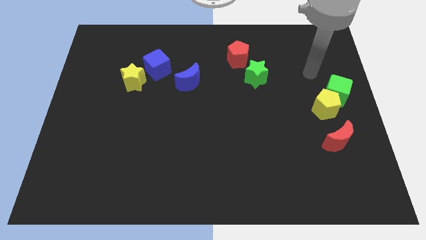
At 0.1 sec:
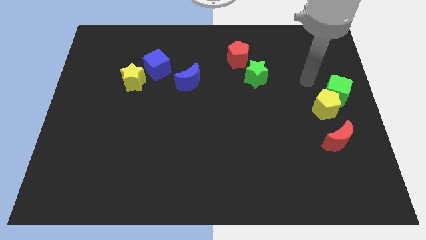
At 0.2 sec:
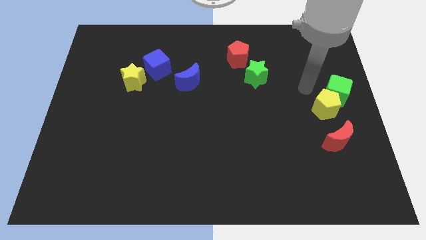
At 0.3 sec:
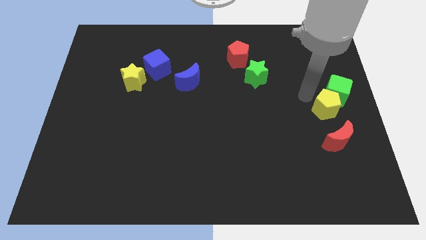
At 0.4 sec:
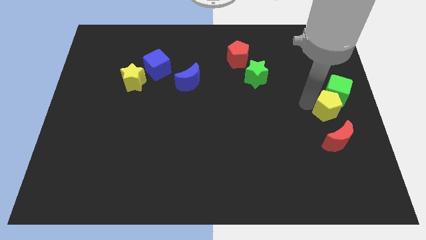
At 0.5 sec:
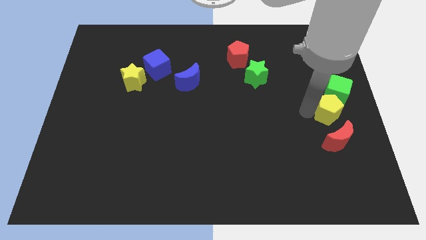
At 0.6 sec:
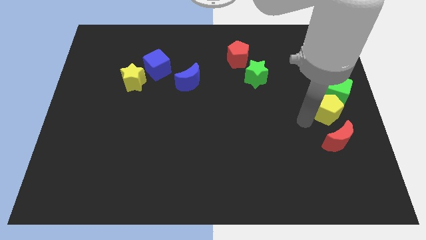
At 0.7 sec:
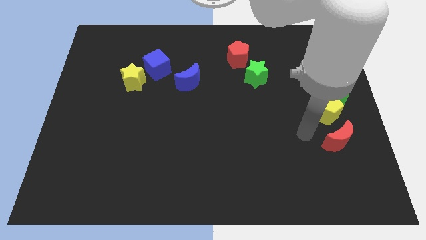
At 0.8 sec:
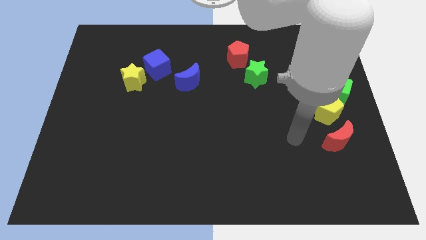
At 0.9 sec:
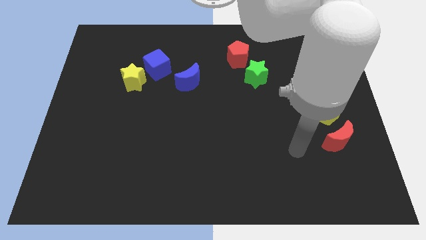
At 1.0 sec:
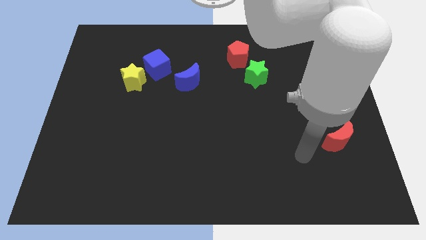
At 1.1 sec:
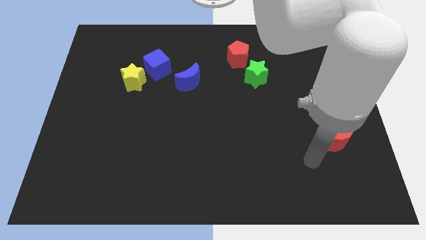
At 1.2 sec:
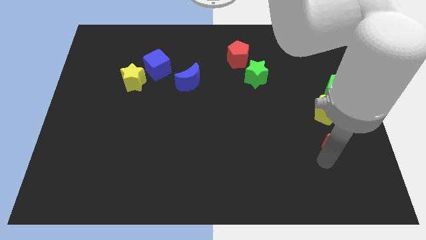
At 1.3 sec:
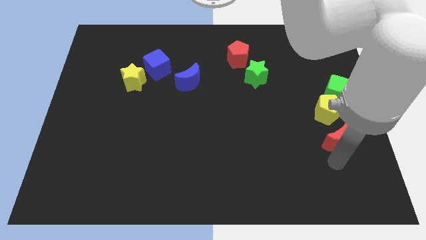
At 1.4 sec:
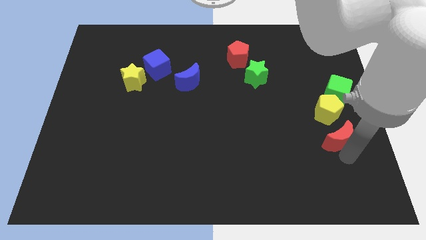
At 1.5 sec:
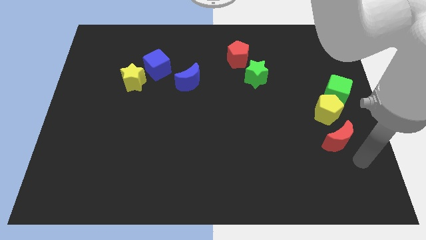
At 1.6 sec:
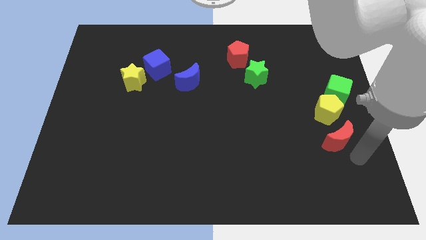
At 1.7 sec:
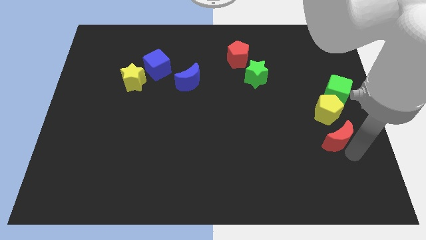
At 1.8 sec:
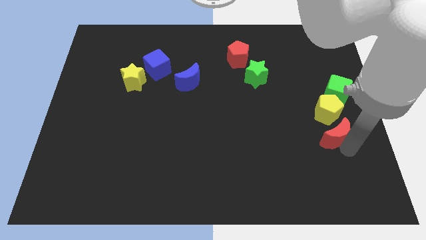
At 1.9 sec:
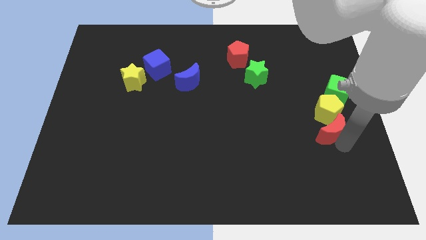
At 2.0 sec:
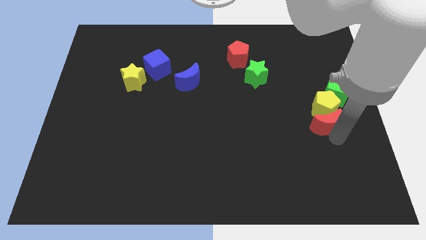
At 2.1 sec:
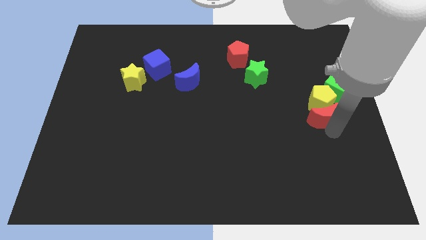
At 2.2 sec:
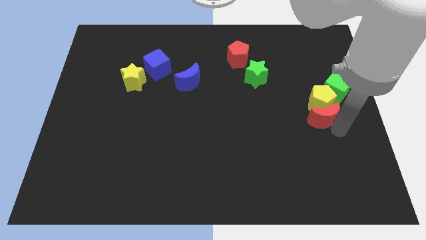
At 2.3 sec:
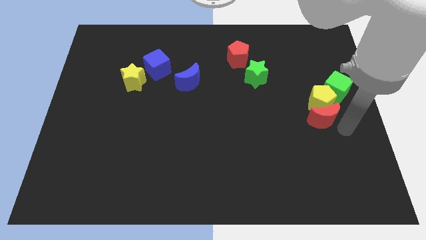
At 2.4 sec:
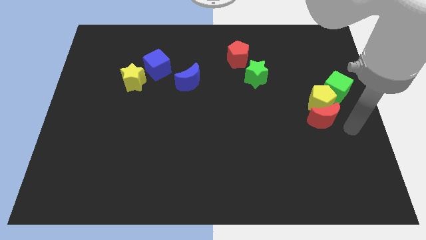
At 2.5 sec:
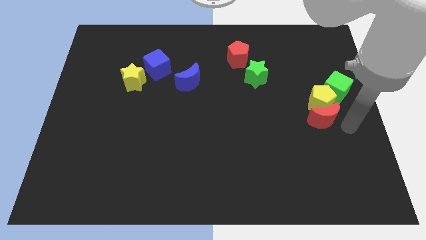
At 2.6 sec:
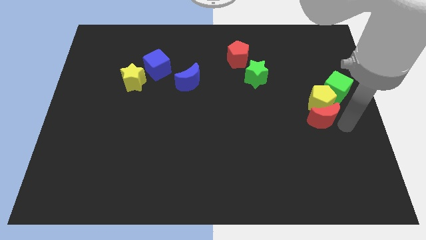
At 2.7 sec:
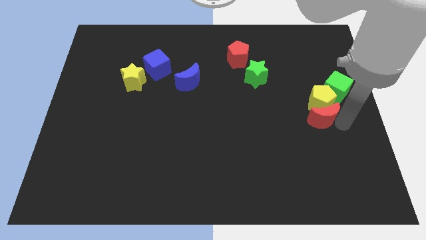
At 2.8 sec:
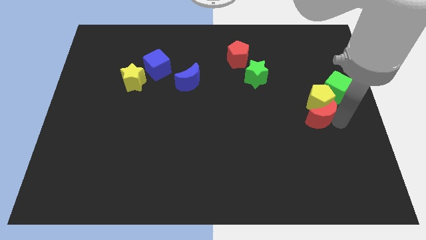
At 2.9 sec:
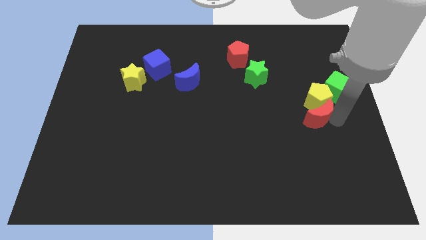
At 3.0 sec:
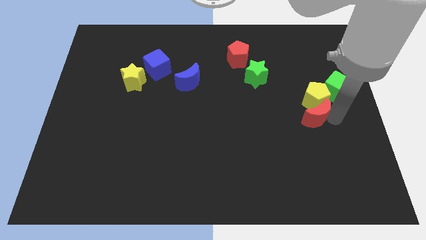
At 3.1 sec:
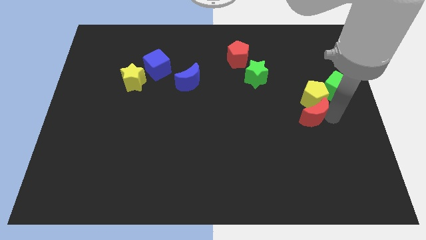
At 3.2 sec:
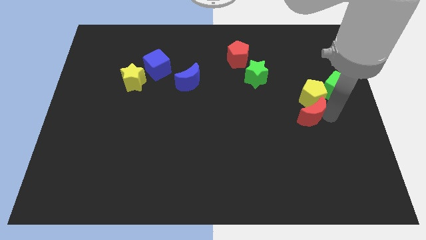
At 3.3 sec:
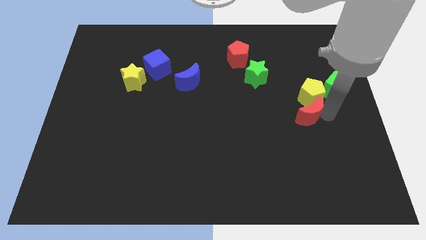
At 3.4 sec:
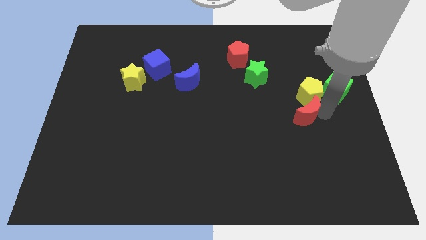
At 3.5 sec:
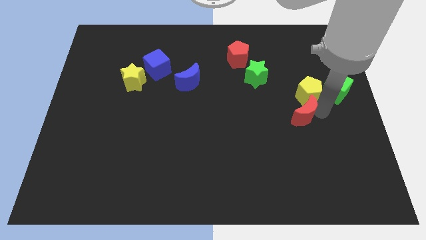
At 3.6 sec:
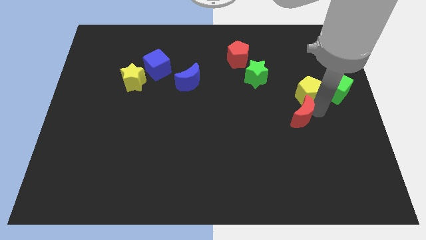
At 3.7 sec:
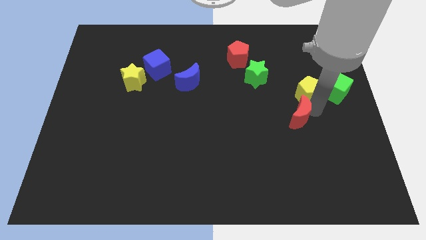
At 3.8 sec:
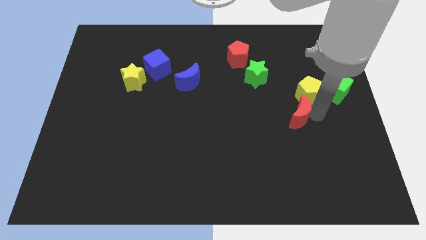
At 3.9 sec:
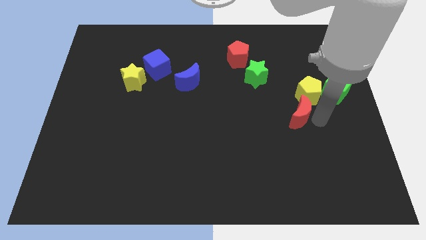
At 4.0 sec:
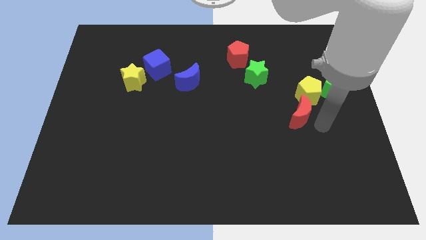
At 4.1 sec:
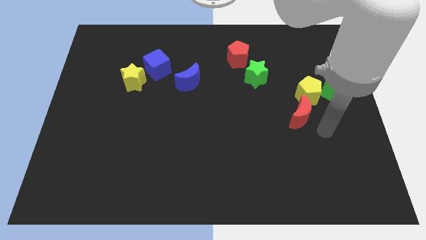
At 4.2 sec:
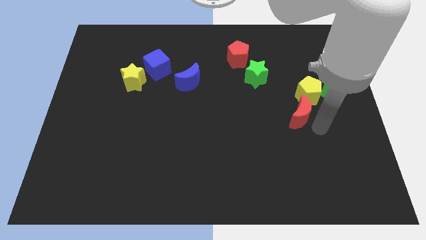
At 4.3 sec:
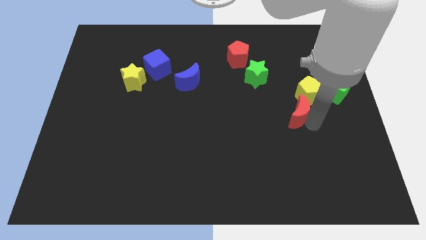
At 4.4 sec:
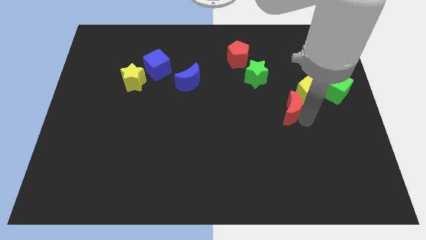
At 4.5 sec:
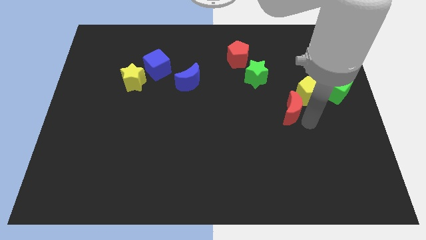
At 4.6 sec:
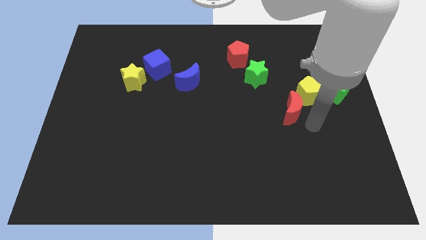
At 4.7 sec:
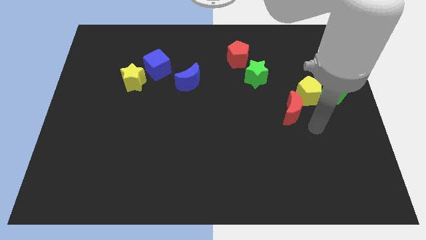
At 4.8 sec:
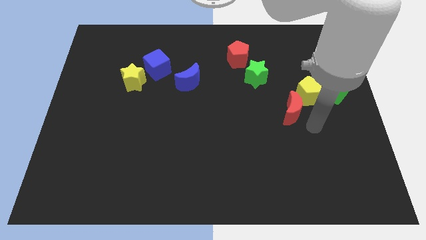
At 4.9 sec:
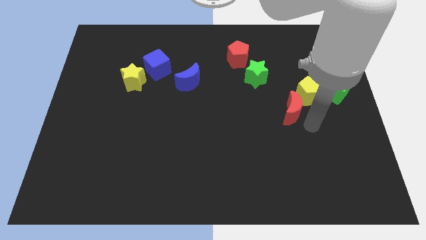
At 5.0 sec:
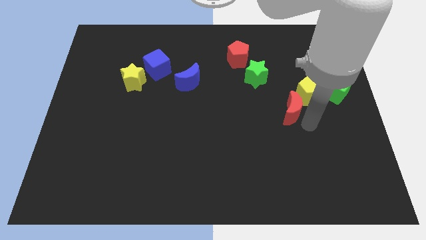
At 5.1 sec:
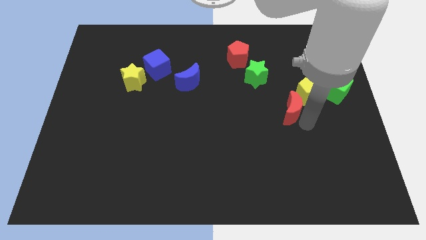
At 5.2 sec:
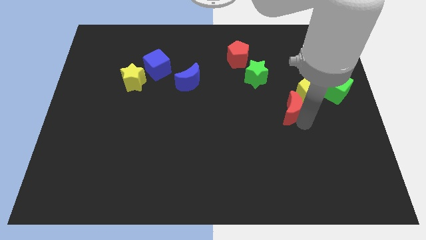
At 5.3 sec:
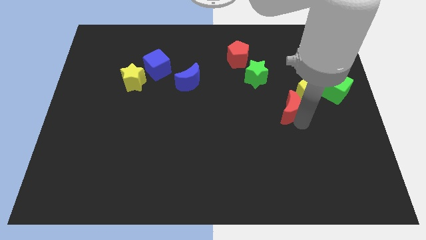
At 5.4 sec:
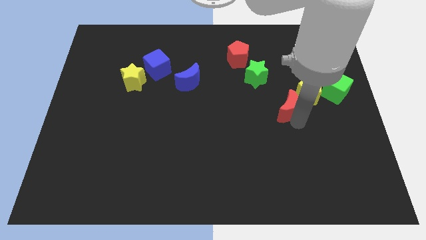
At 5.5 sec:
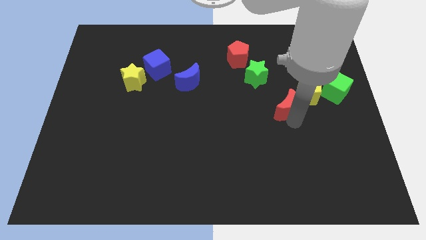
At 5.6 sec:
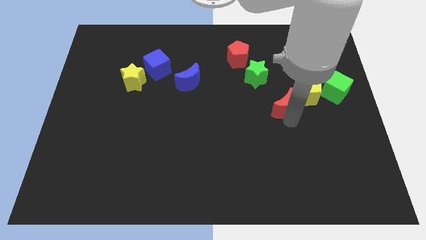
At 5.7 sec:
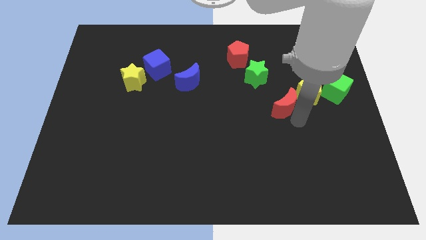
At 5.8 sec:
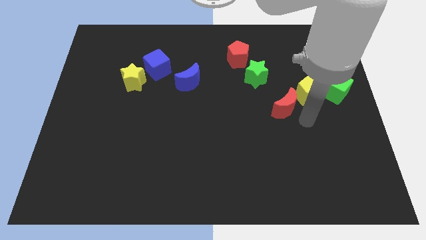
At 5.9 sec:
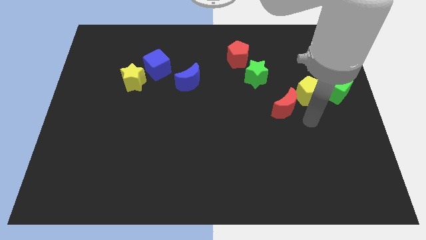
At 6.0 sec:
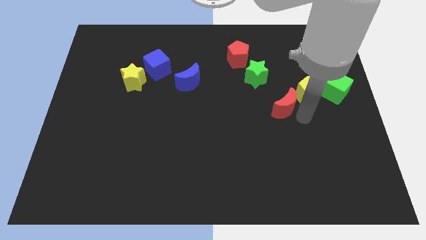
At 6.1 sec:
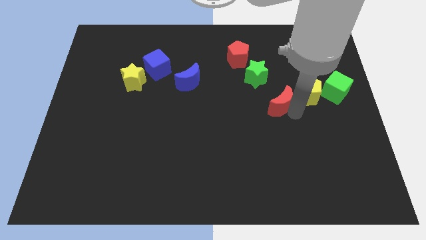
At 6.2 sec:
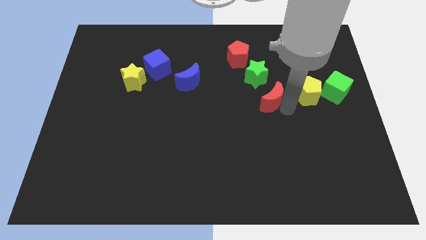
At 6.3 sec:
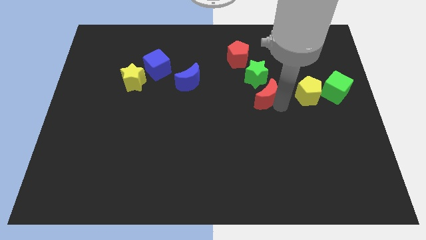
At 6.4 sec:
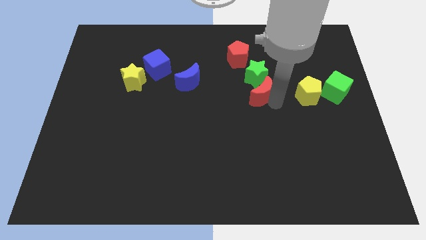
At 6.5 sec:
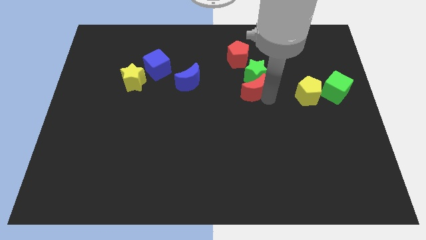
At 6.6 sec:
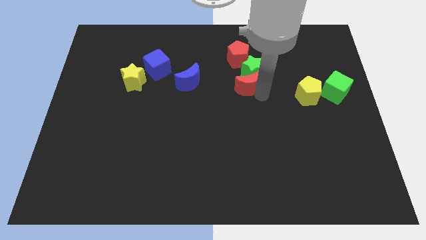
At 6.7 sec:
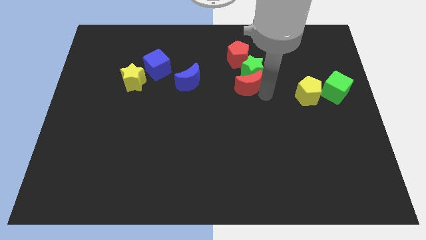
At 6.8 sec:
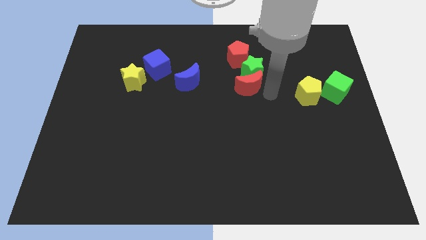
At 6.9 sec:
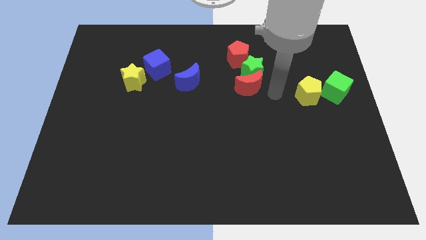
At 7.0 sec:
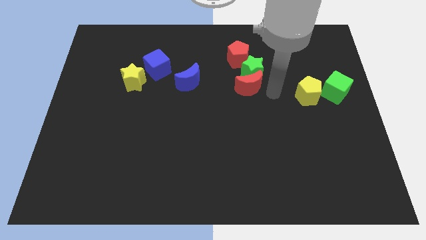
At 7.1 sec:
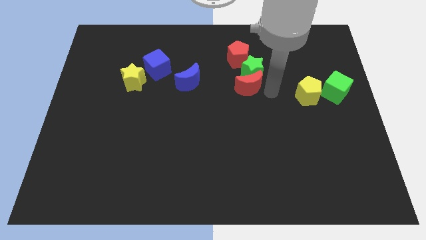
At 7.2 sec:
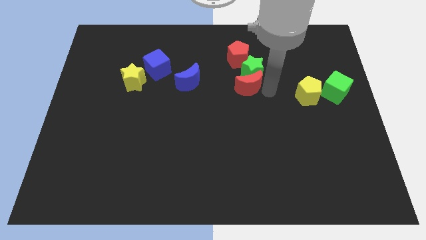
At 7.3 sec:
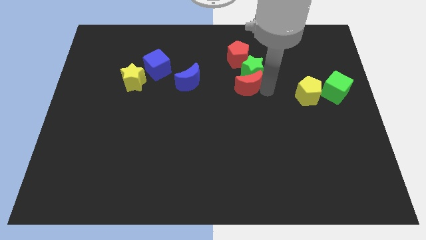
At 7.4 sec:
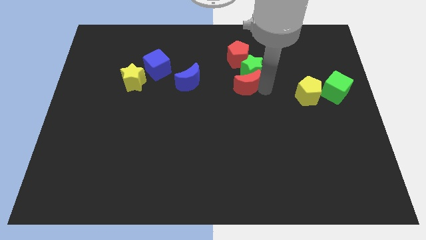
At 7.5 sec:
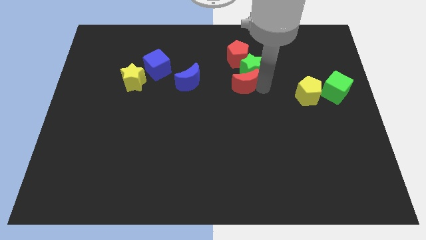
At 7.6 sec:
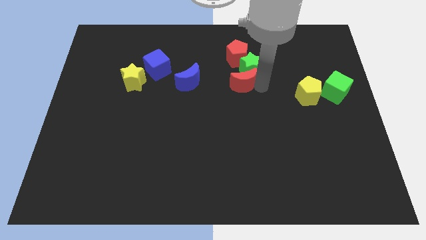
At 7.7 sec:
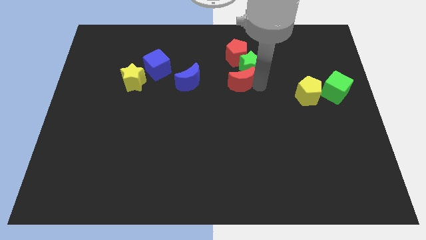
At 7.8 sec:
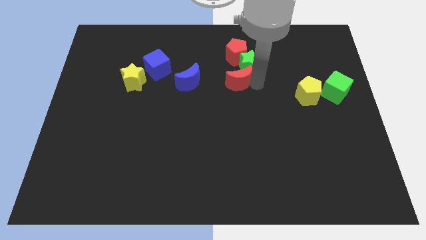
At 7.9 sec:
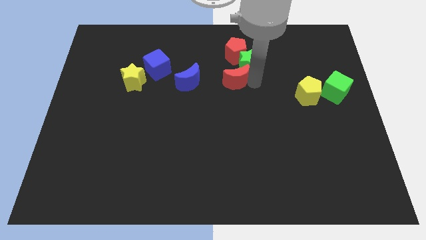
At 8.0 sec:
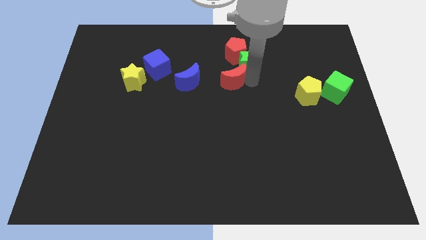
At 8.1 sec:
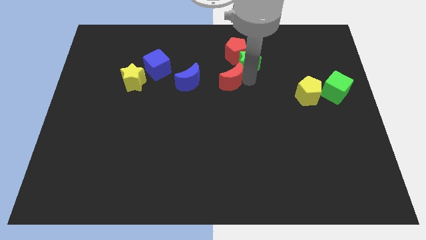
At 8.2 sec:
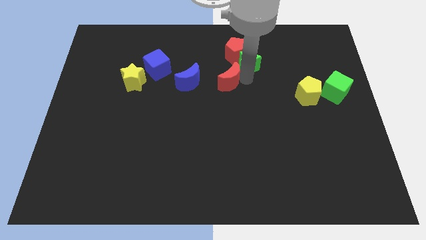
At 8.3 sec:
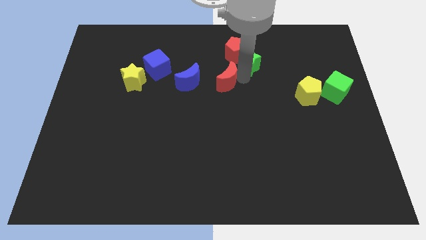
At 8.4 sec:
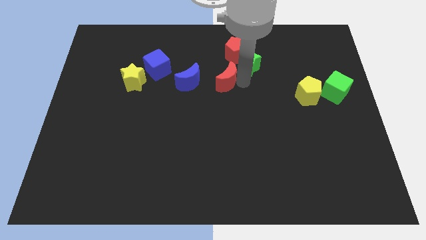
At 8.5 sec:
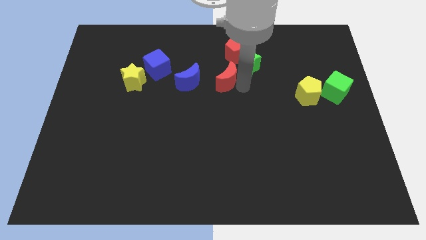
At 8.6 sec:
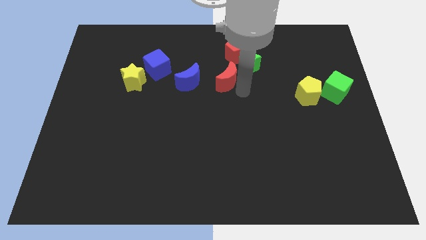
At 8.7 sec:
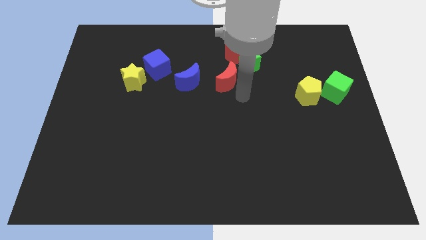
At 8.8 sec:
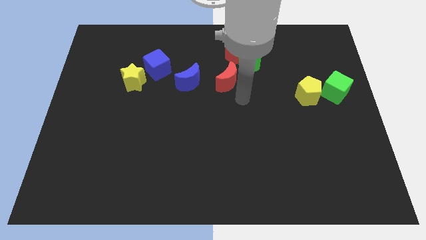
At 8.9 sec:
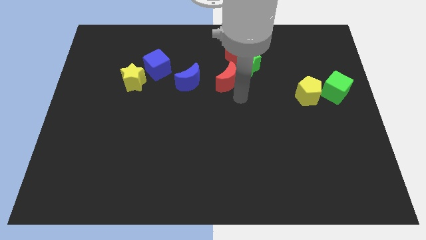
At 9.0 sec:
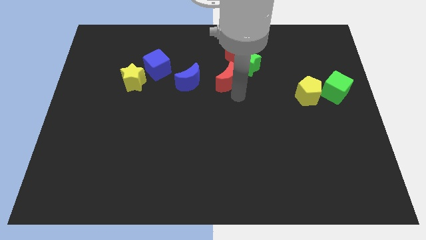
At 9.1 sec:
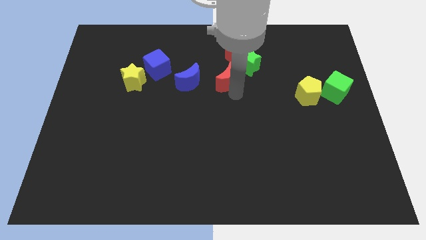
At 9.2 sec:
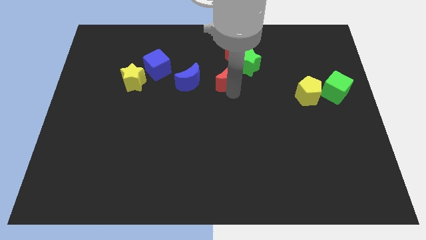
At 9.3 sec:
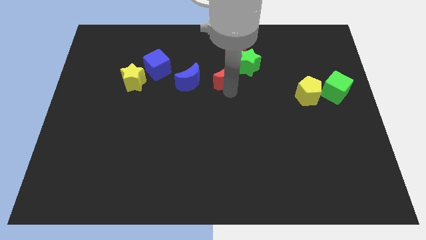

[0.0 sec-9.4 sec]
slide the red moon diagonally down and to the left of the red pentagon
